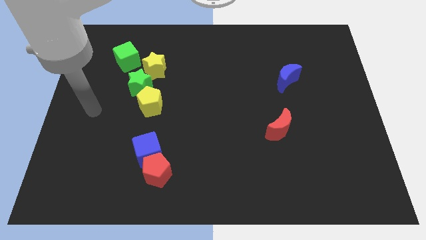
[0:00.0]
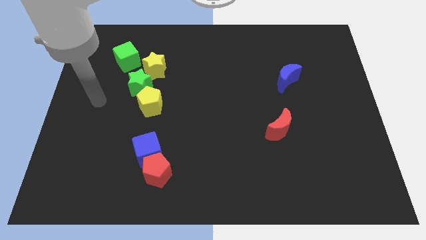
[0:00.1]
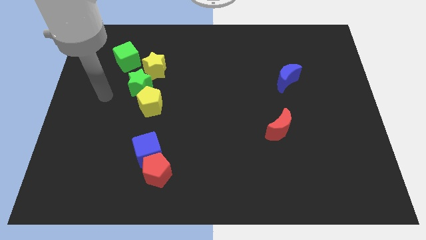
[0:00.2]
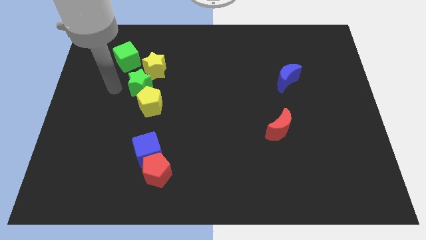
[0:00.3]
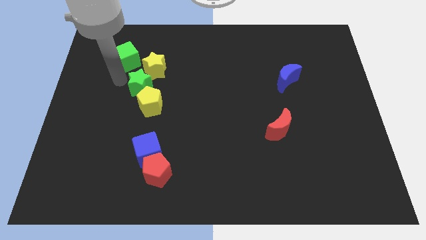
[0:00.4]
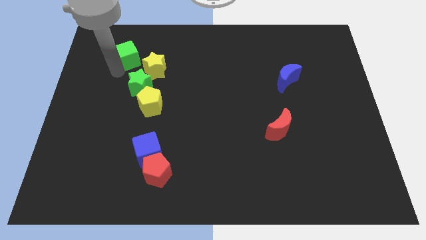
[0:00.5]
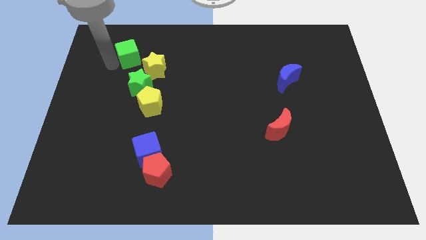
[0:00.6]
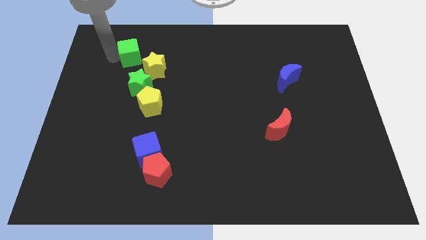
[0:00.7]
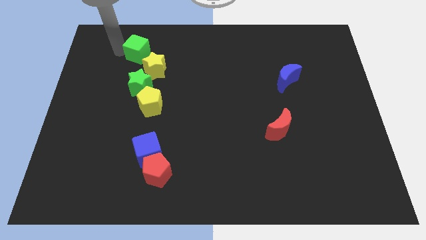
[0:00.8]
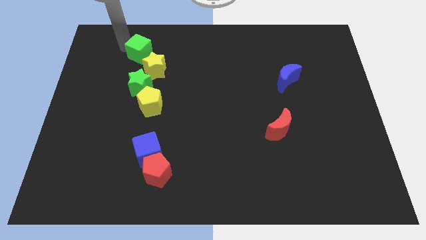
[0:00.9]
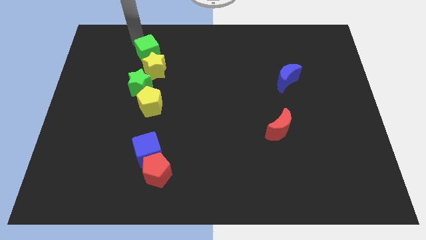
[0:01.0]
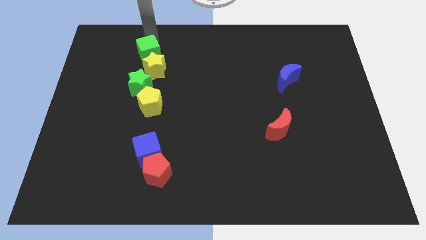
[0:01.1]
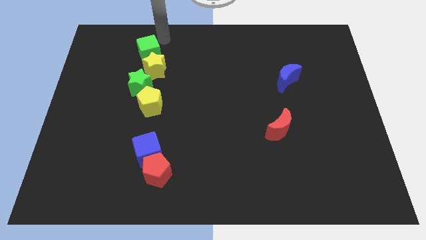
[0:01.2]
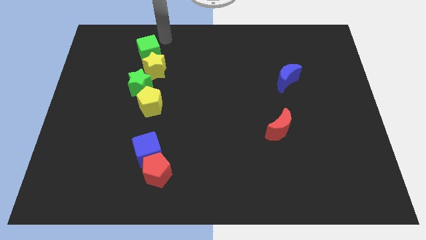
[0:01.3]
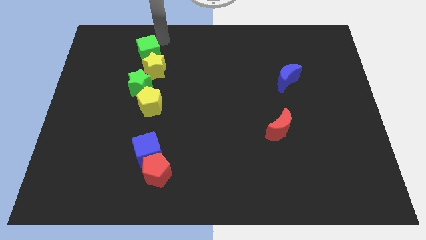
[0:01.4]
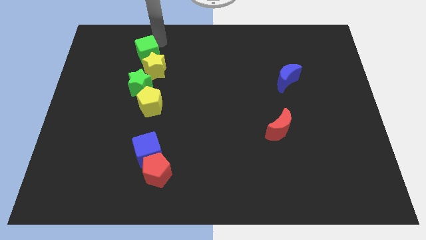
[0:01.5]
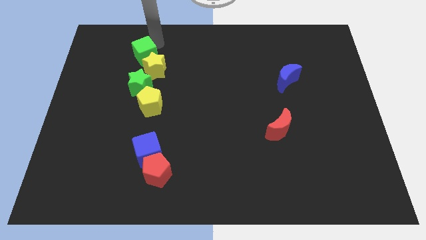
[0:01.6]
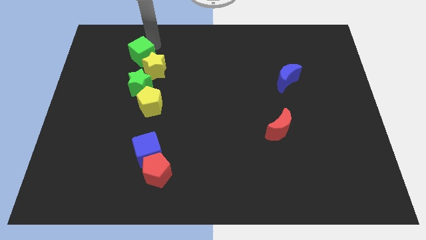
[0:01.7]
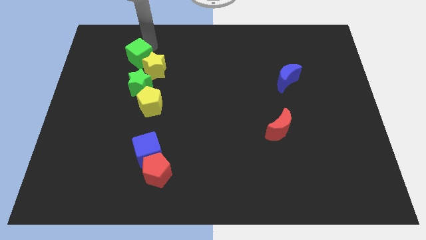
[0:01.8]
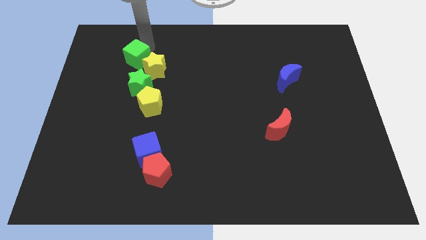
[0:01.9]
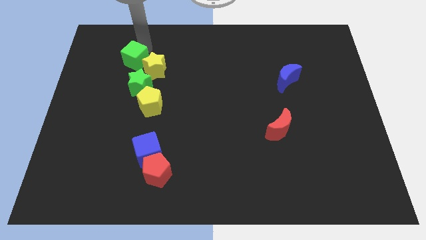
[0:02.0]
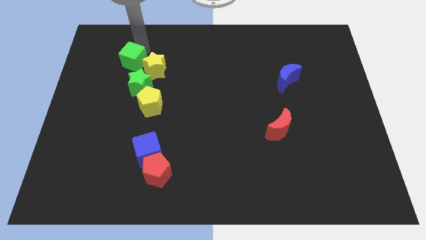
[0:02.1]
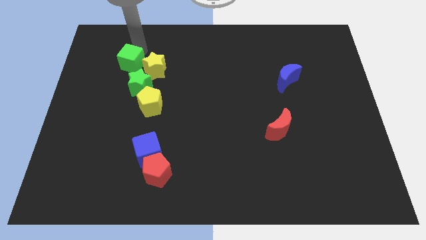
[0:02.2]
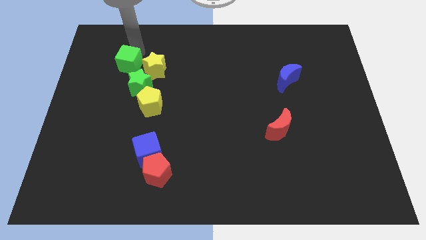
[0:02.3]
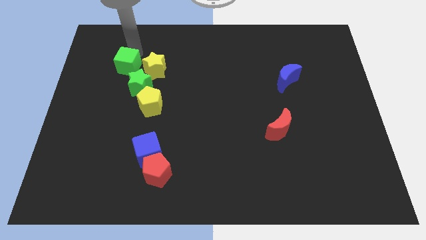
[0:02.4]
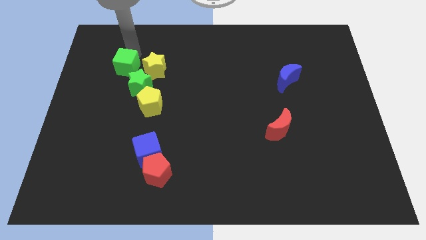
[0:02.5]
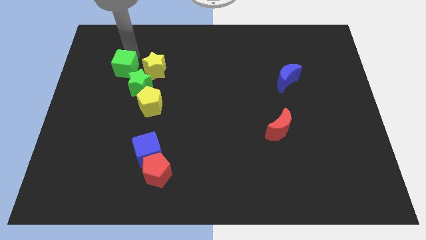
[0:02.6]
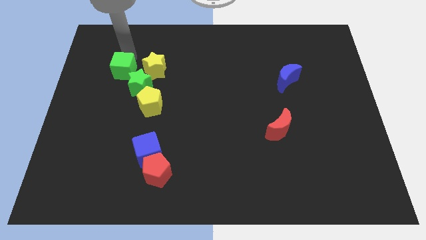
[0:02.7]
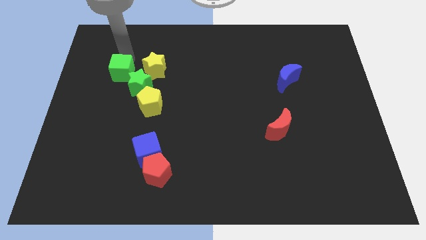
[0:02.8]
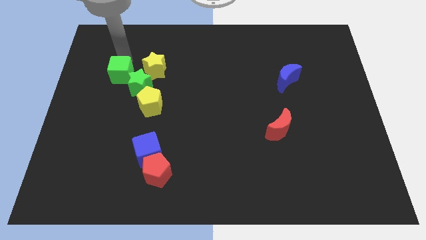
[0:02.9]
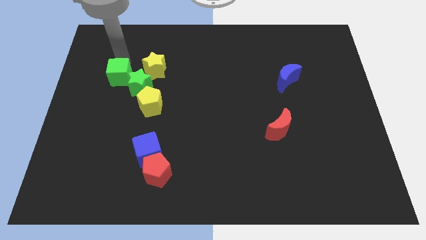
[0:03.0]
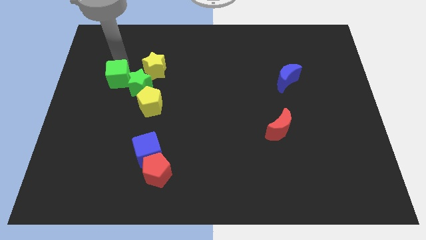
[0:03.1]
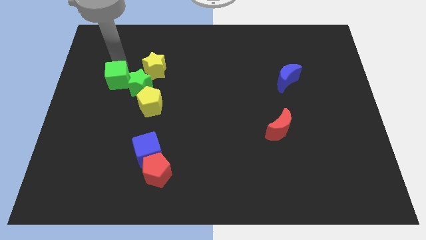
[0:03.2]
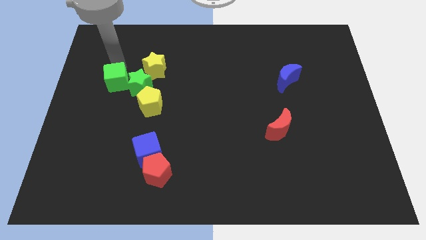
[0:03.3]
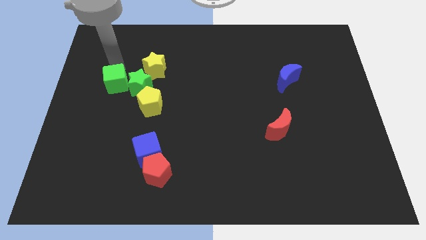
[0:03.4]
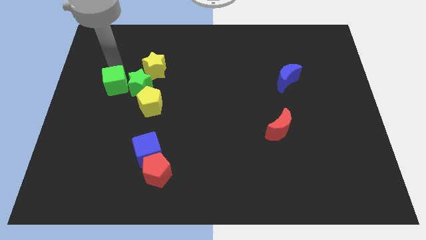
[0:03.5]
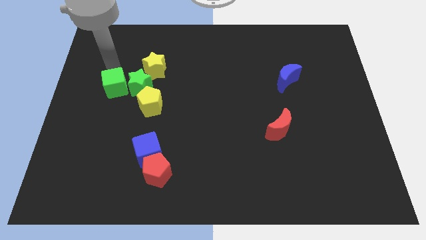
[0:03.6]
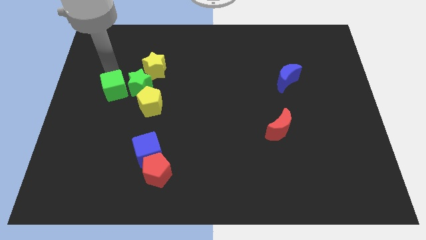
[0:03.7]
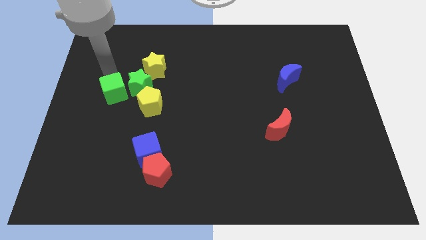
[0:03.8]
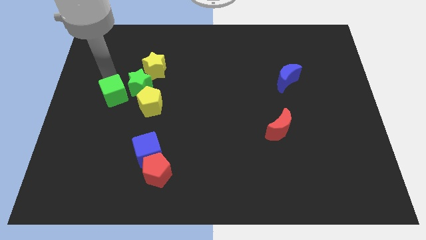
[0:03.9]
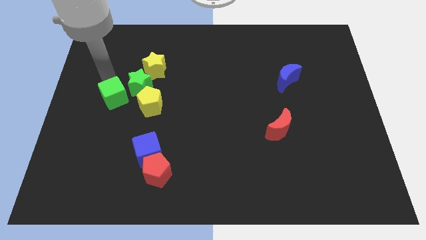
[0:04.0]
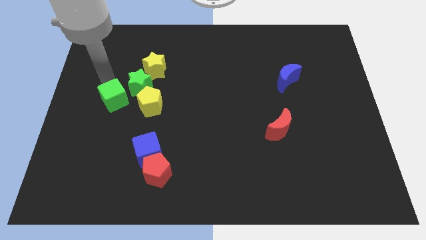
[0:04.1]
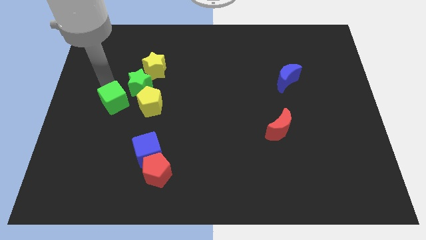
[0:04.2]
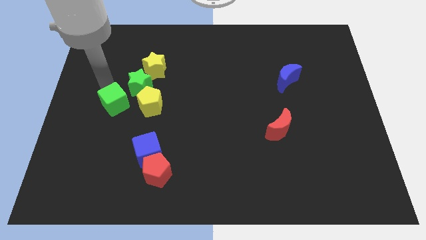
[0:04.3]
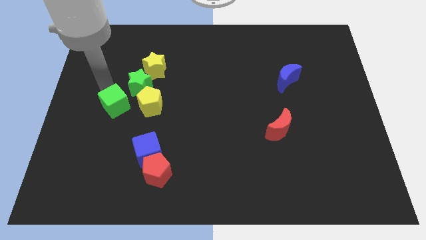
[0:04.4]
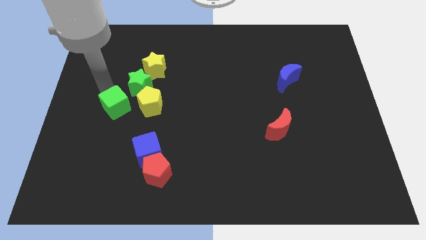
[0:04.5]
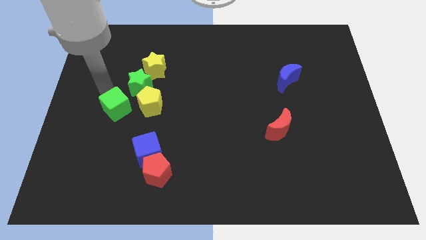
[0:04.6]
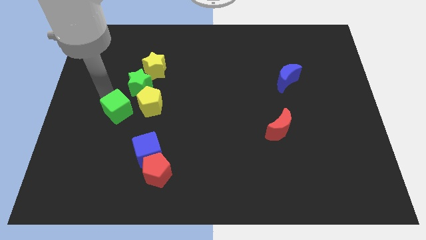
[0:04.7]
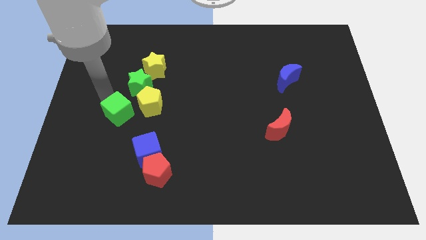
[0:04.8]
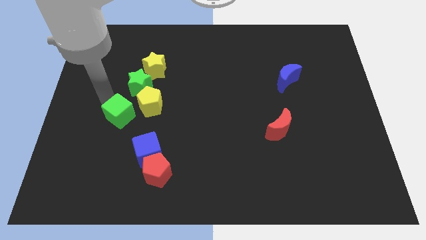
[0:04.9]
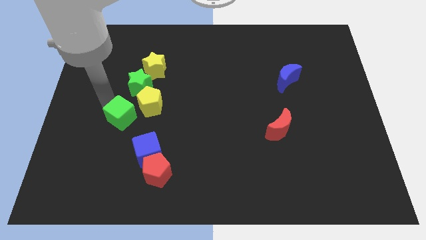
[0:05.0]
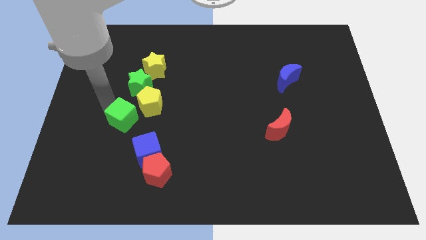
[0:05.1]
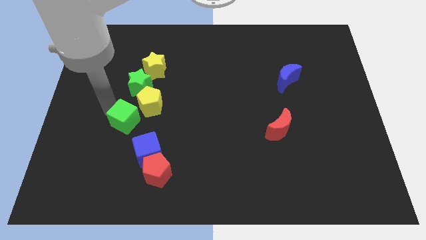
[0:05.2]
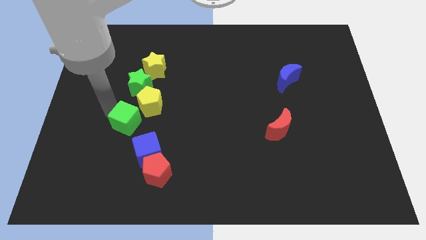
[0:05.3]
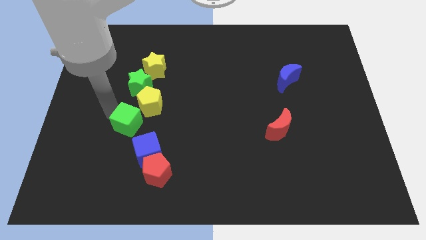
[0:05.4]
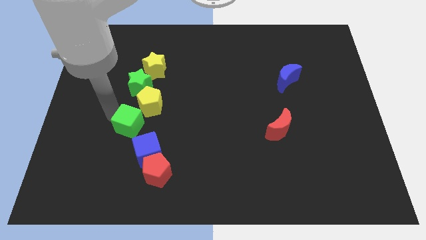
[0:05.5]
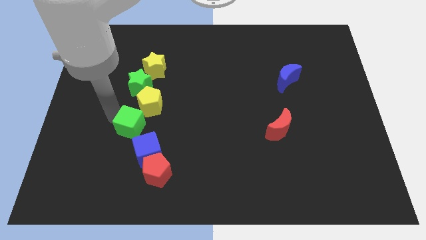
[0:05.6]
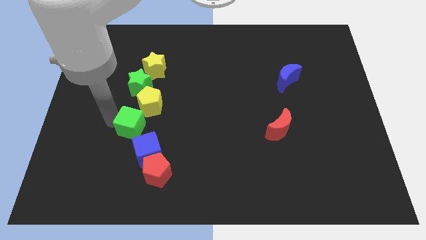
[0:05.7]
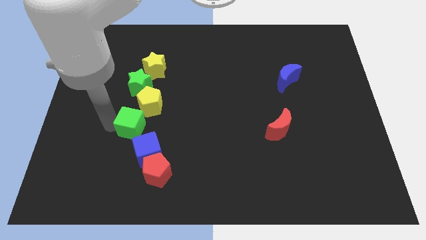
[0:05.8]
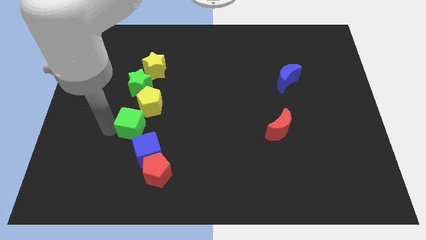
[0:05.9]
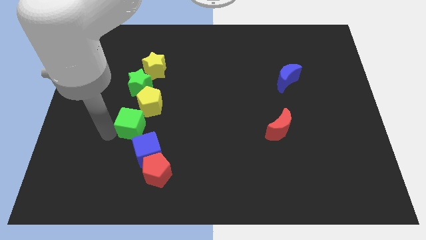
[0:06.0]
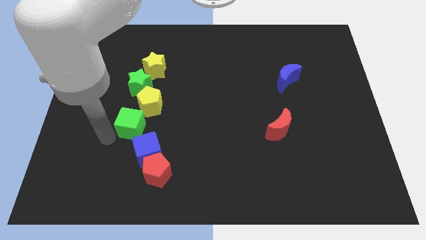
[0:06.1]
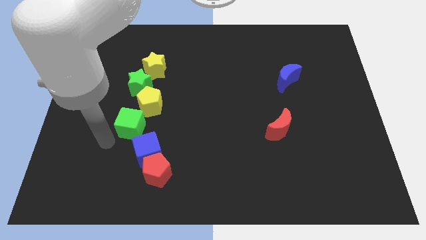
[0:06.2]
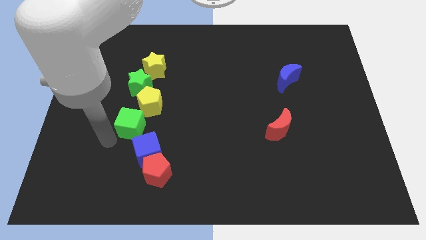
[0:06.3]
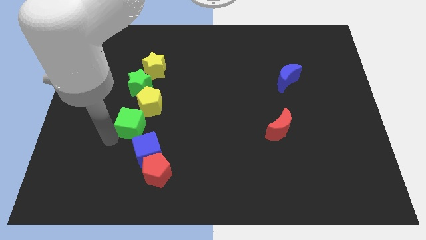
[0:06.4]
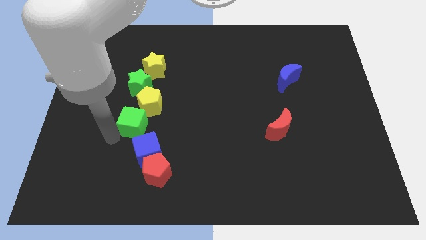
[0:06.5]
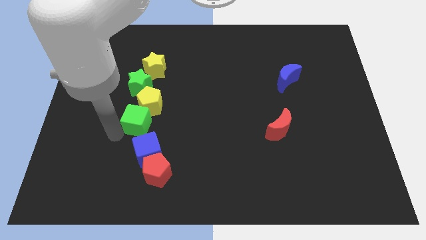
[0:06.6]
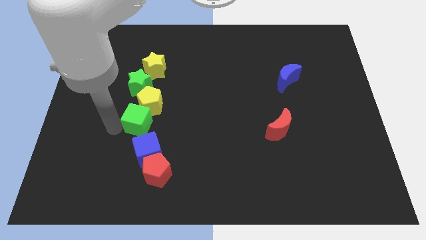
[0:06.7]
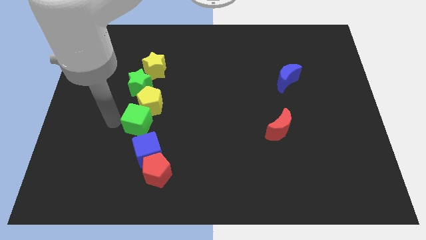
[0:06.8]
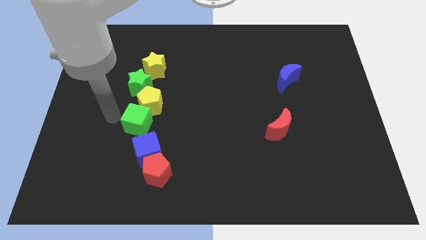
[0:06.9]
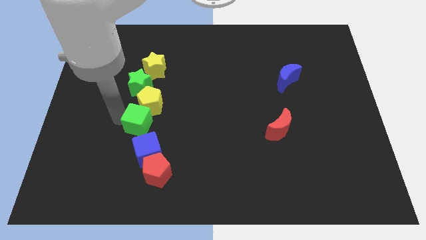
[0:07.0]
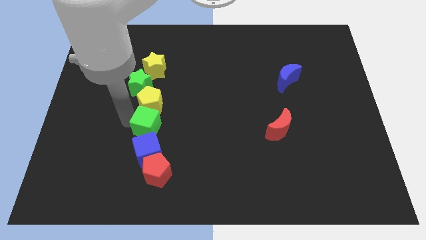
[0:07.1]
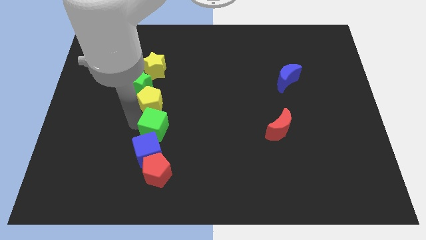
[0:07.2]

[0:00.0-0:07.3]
slide the green cube diagonally up and to the right of the blue cube

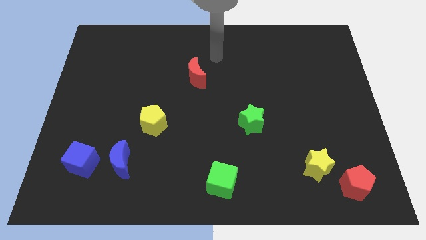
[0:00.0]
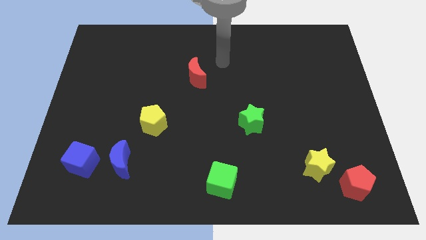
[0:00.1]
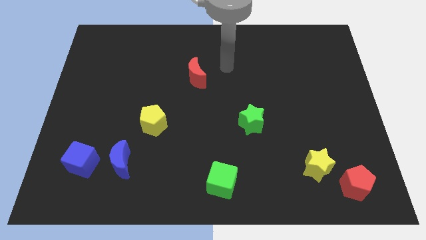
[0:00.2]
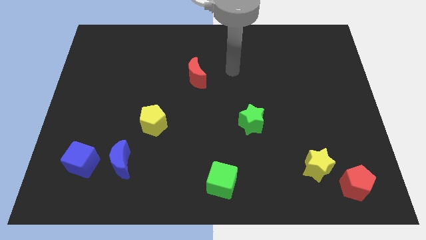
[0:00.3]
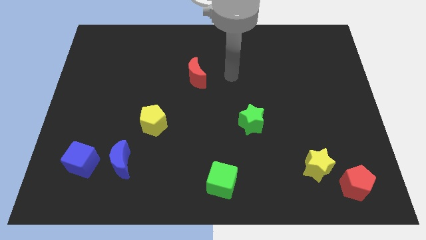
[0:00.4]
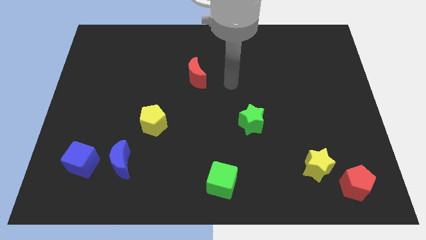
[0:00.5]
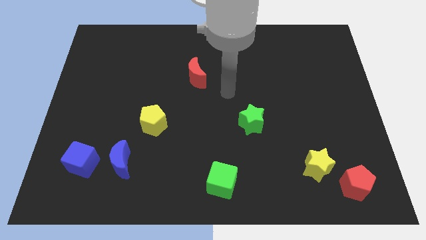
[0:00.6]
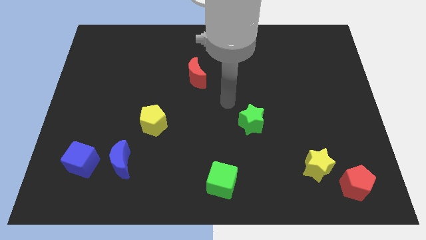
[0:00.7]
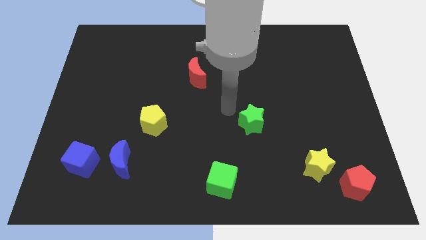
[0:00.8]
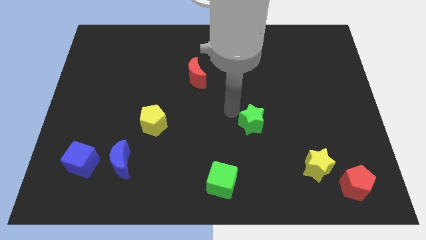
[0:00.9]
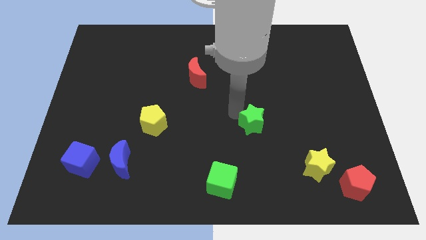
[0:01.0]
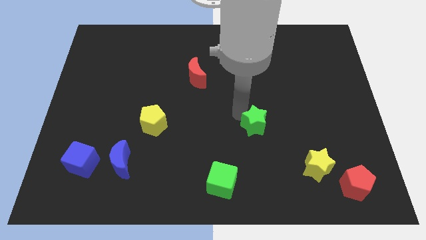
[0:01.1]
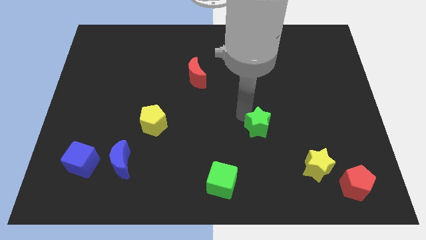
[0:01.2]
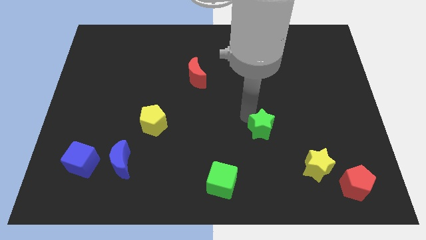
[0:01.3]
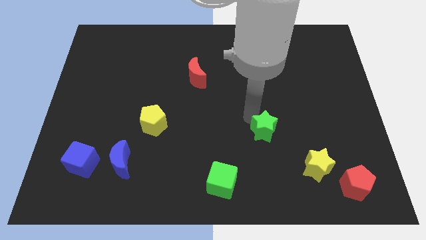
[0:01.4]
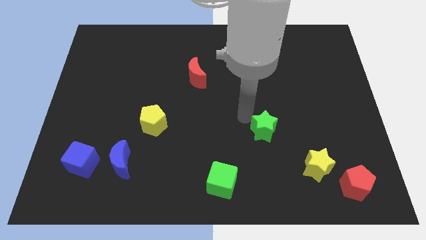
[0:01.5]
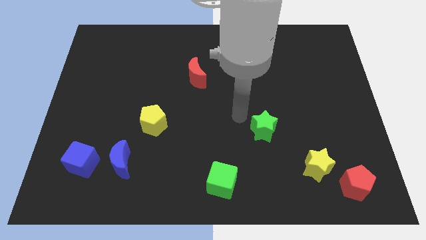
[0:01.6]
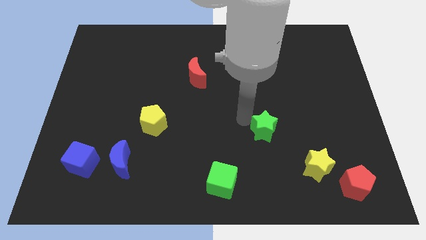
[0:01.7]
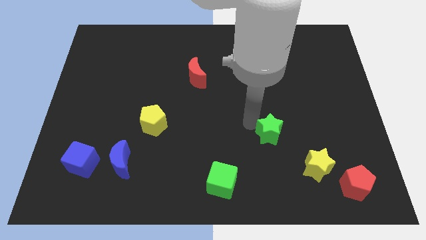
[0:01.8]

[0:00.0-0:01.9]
move the green star to the top left side of the yellow star
